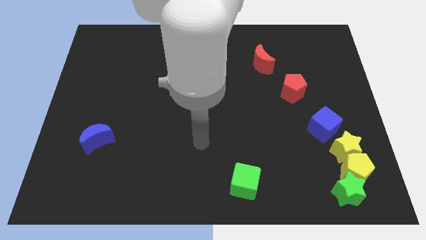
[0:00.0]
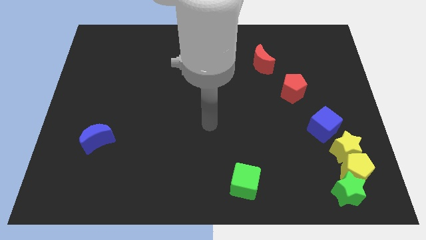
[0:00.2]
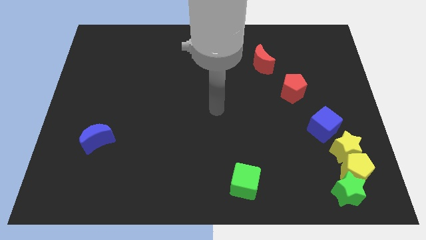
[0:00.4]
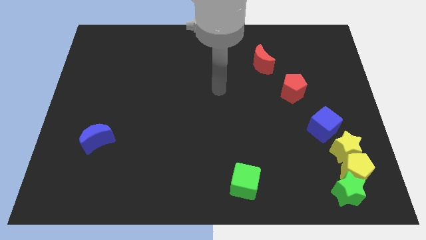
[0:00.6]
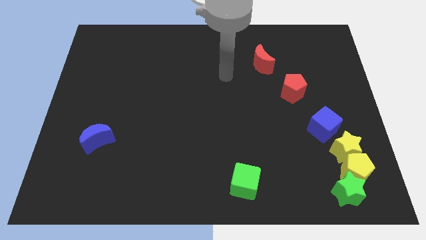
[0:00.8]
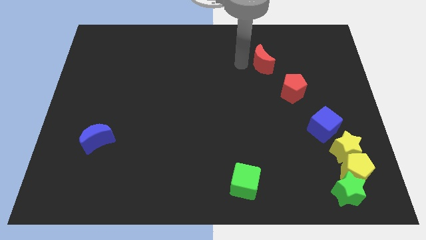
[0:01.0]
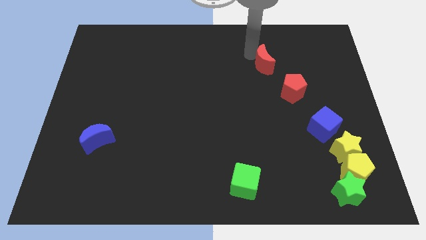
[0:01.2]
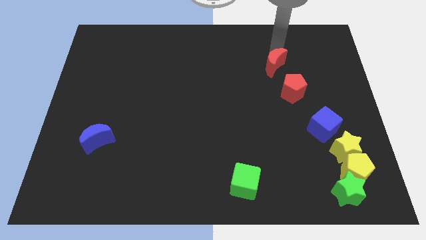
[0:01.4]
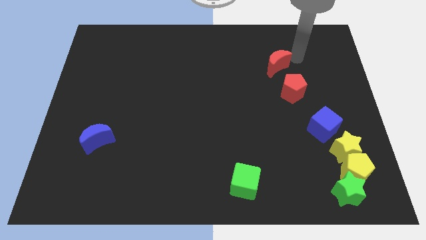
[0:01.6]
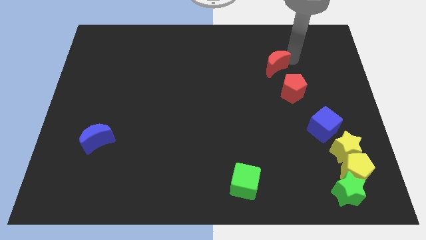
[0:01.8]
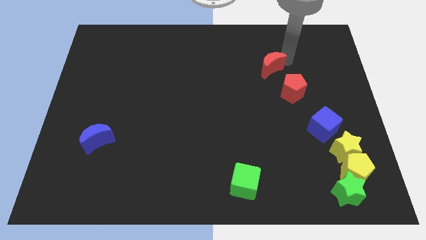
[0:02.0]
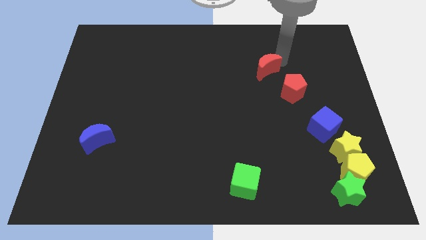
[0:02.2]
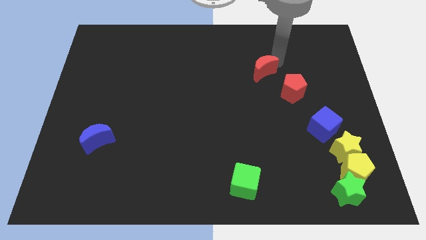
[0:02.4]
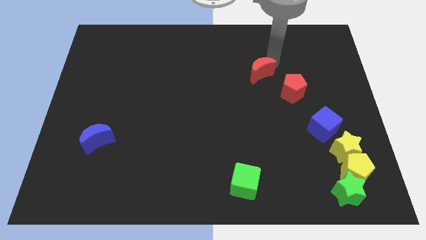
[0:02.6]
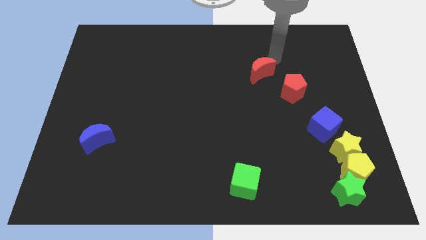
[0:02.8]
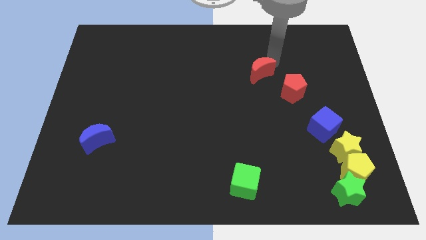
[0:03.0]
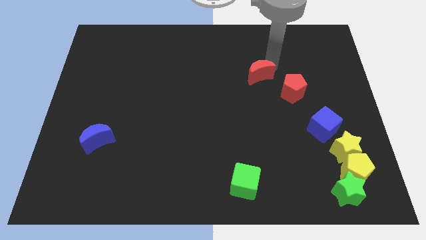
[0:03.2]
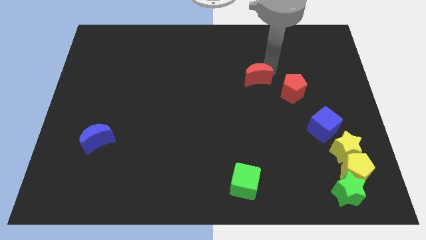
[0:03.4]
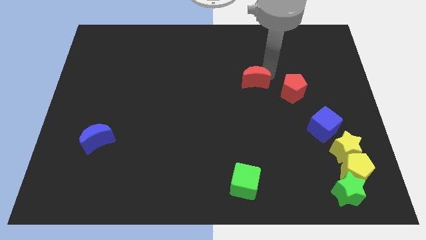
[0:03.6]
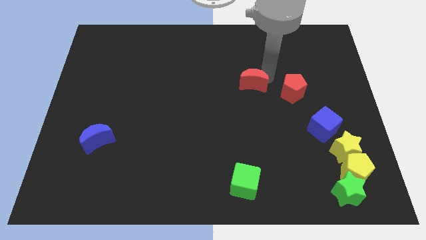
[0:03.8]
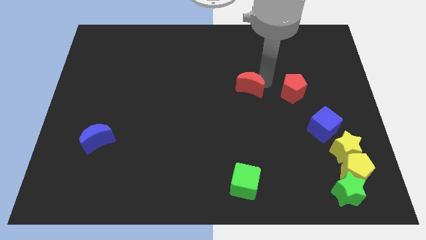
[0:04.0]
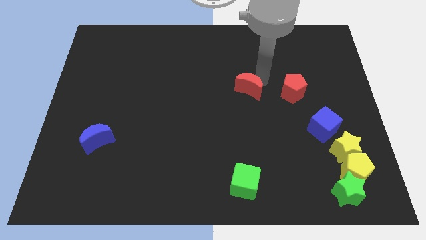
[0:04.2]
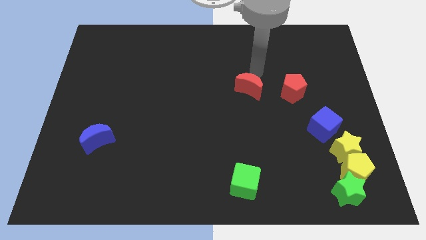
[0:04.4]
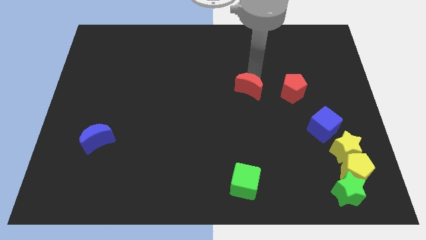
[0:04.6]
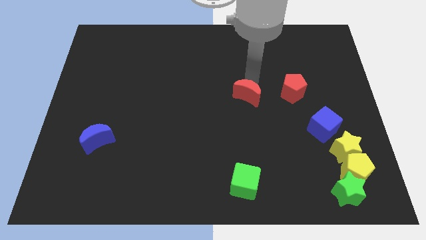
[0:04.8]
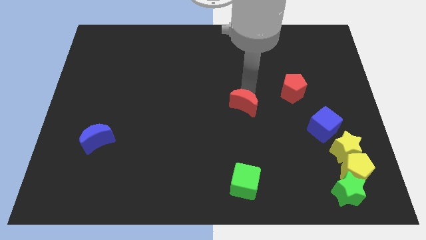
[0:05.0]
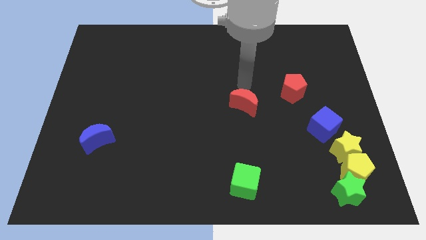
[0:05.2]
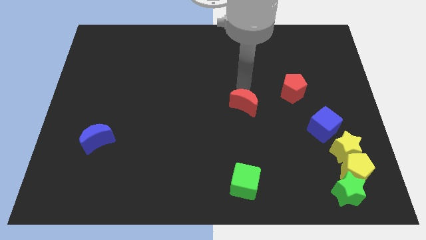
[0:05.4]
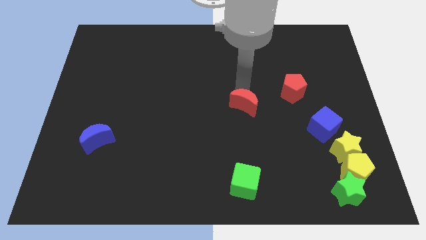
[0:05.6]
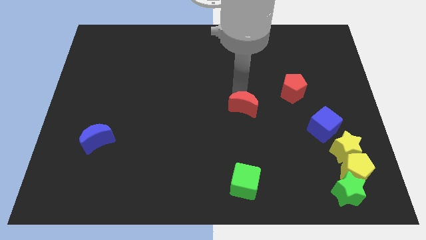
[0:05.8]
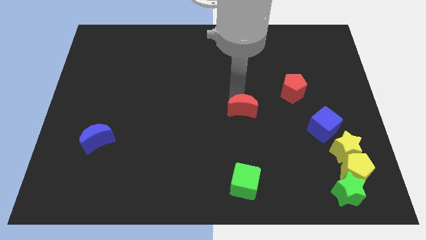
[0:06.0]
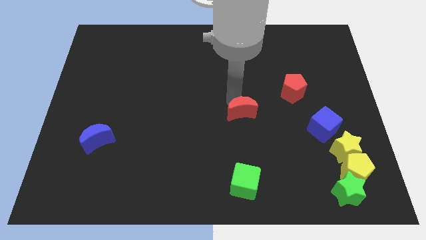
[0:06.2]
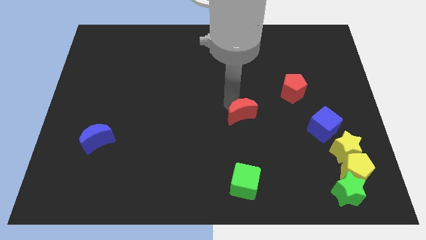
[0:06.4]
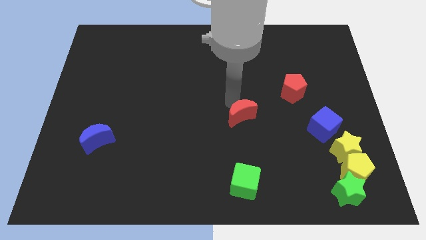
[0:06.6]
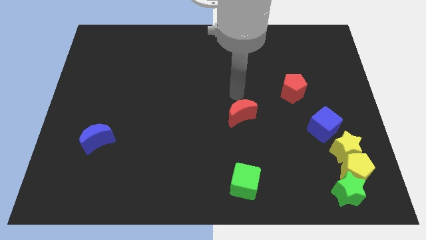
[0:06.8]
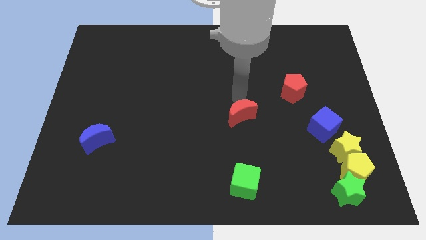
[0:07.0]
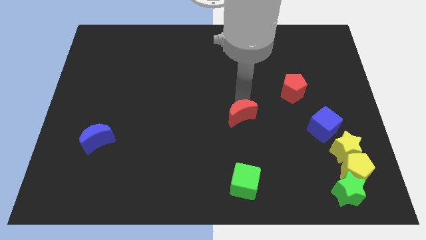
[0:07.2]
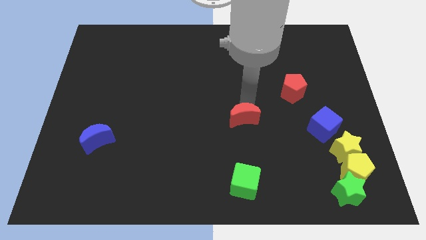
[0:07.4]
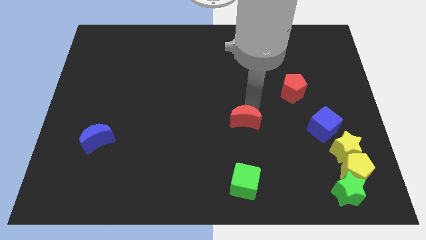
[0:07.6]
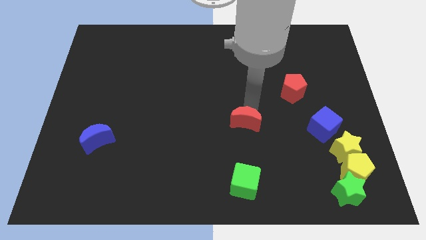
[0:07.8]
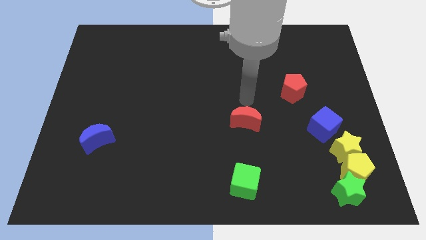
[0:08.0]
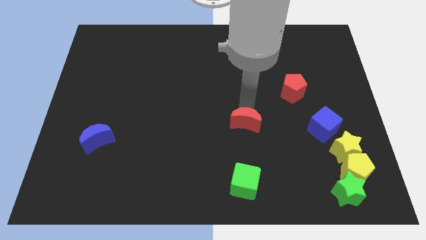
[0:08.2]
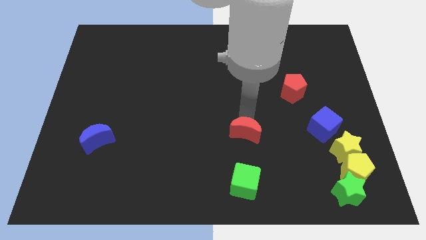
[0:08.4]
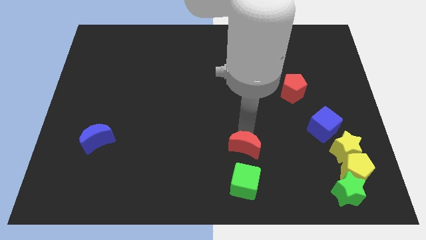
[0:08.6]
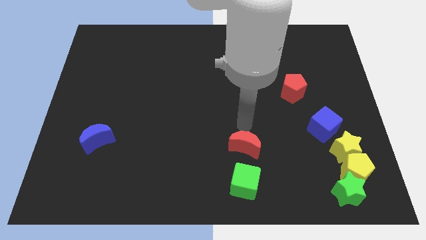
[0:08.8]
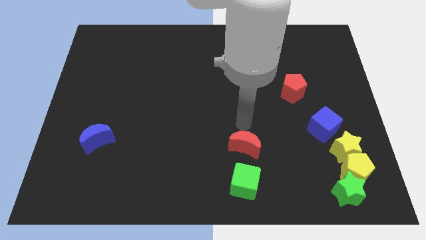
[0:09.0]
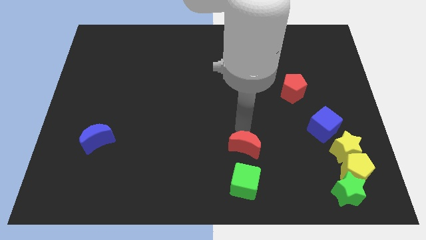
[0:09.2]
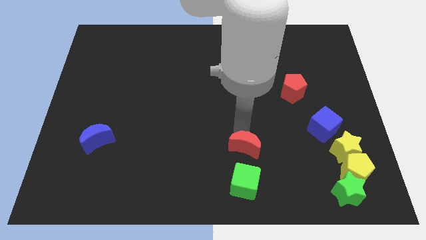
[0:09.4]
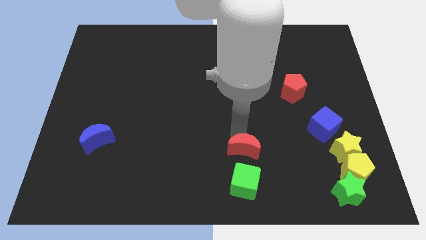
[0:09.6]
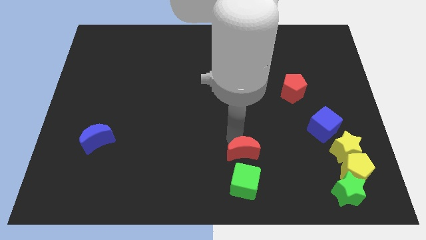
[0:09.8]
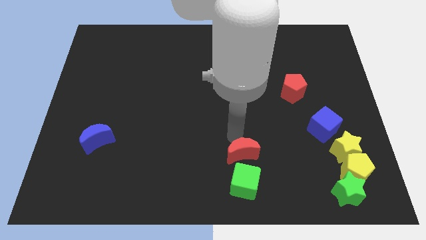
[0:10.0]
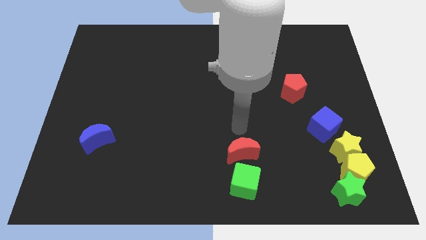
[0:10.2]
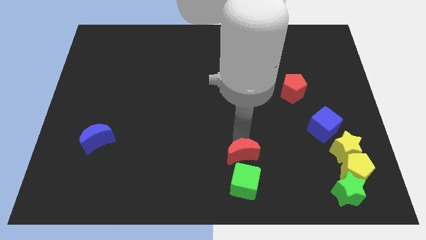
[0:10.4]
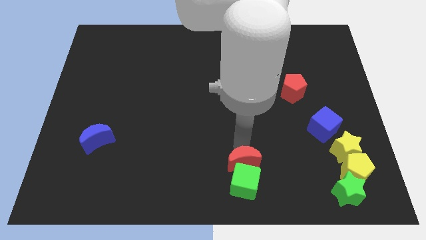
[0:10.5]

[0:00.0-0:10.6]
slide the red moon to the green cube

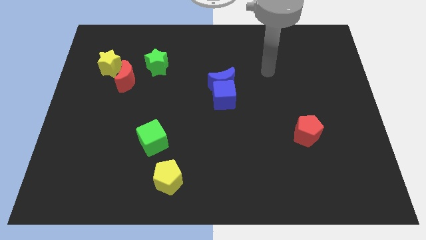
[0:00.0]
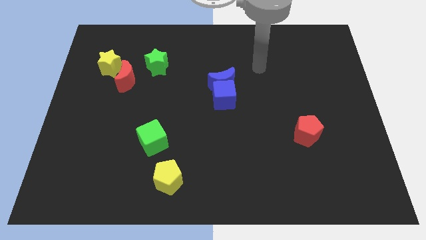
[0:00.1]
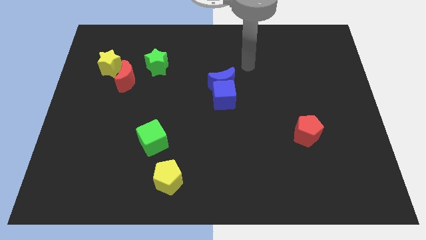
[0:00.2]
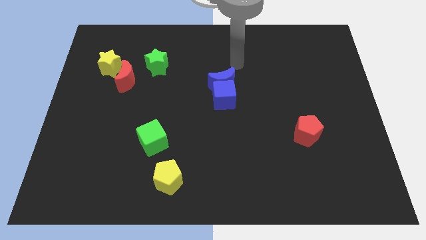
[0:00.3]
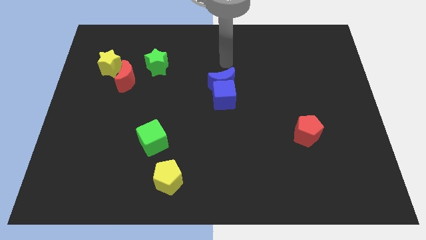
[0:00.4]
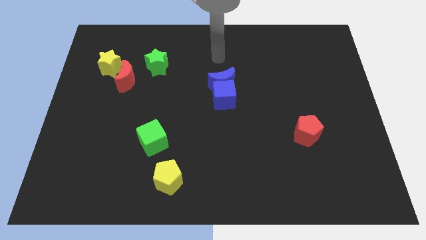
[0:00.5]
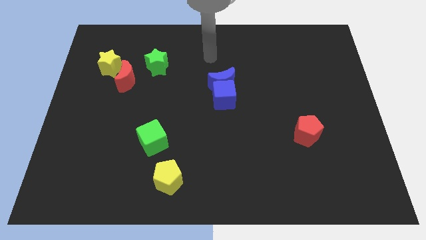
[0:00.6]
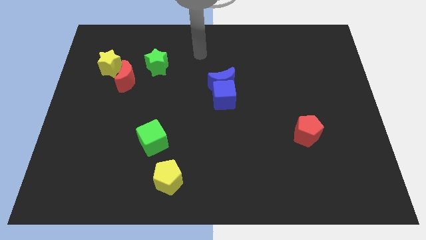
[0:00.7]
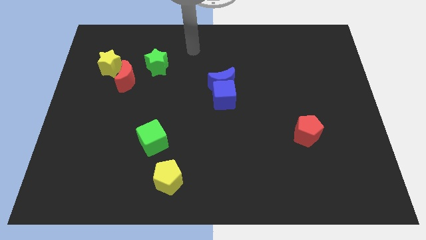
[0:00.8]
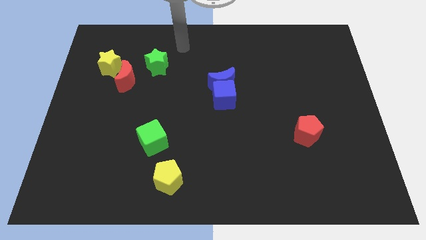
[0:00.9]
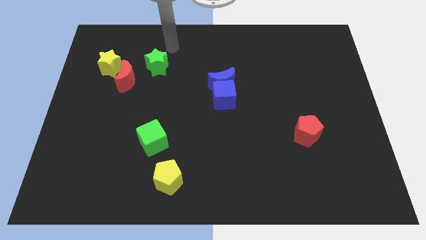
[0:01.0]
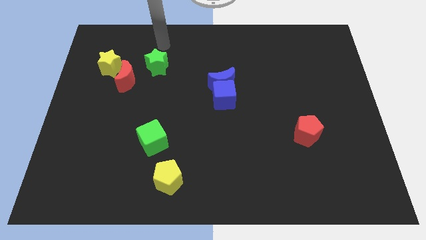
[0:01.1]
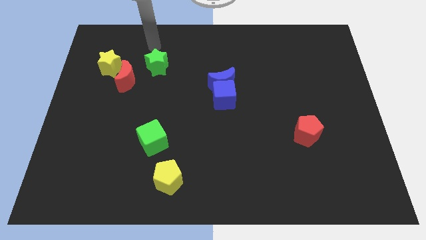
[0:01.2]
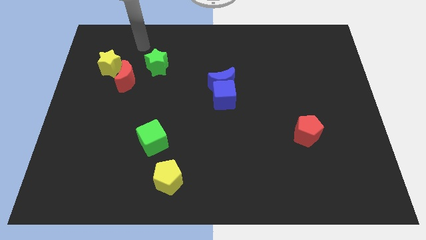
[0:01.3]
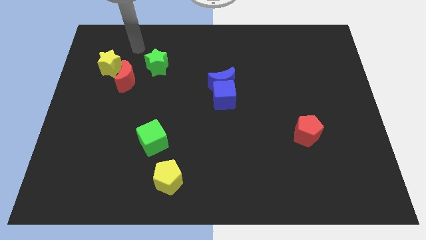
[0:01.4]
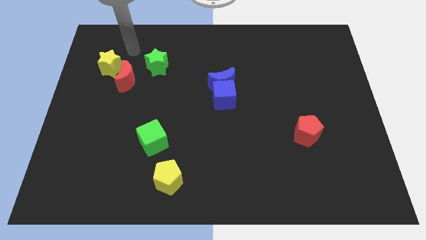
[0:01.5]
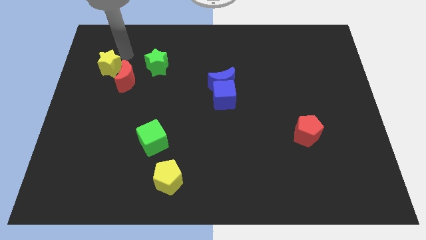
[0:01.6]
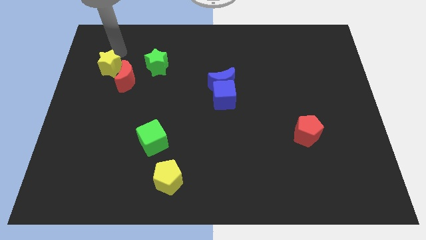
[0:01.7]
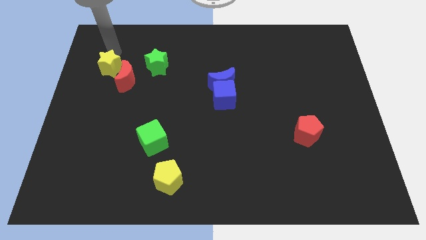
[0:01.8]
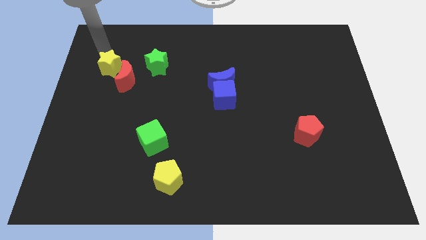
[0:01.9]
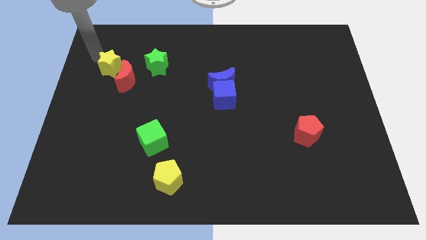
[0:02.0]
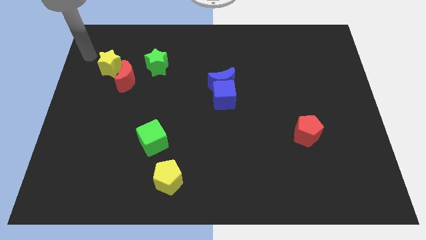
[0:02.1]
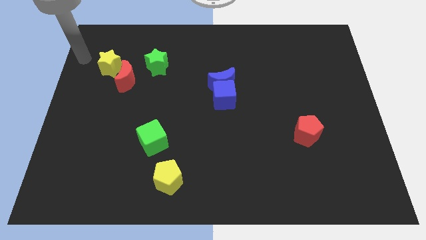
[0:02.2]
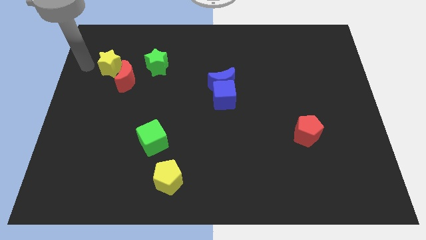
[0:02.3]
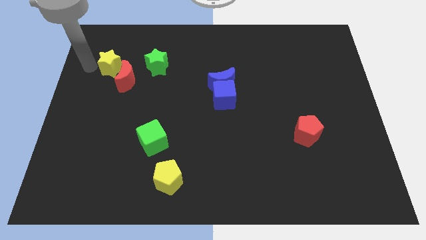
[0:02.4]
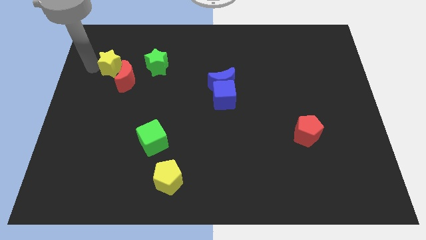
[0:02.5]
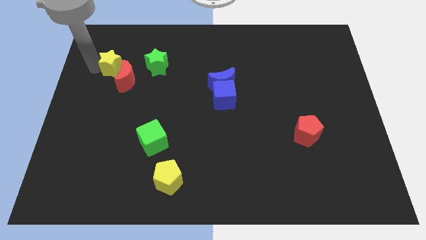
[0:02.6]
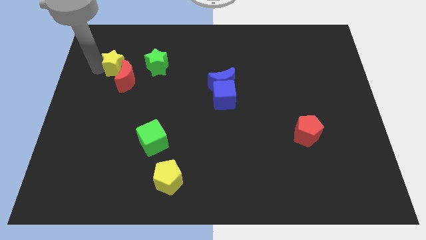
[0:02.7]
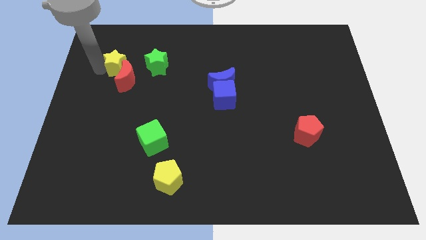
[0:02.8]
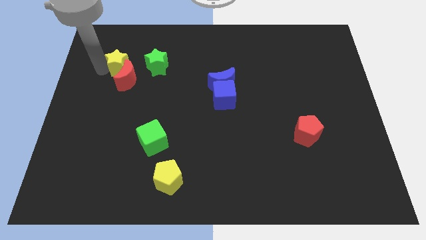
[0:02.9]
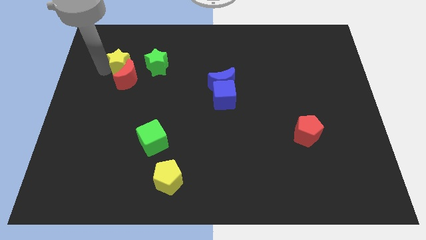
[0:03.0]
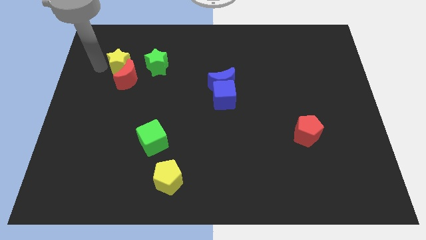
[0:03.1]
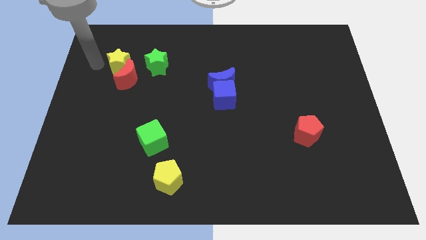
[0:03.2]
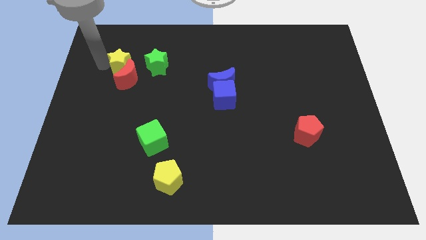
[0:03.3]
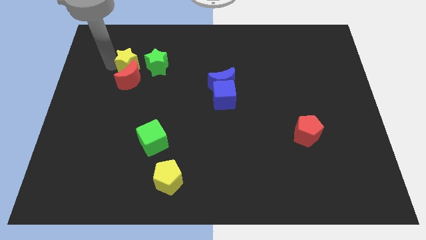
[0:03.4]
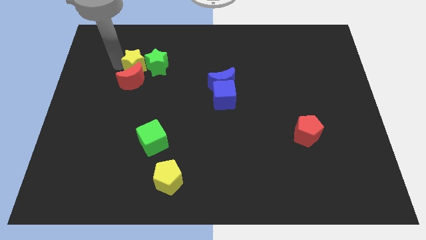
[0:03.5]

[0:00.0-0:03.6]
slide the yellow star to the green star
